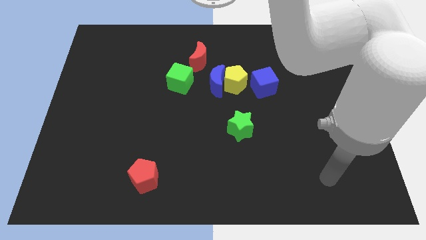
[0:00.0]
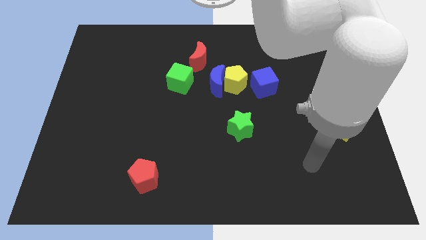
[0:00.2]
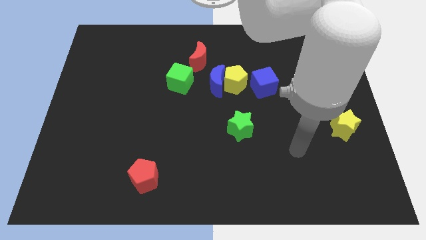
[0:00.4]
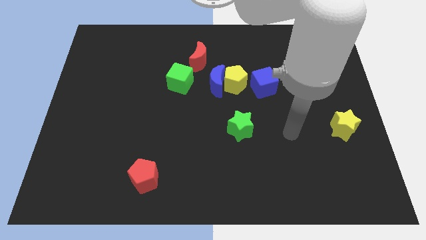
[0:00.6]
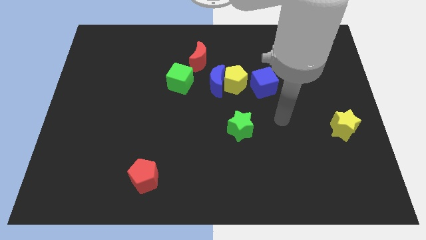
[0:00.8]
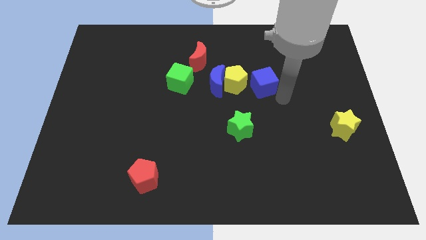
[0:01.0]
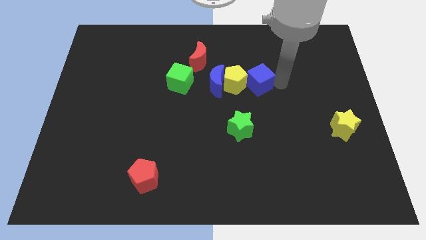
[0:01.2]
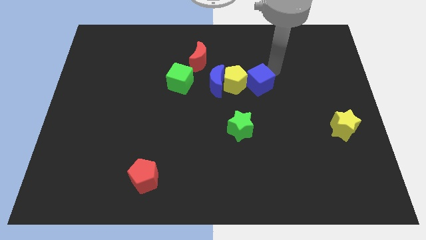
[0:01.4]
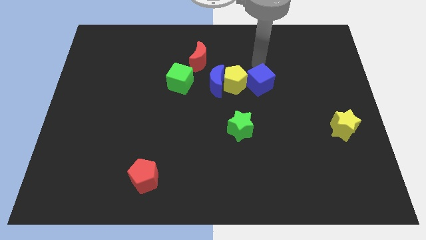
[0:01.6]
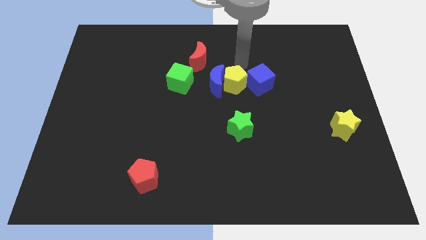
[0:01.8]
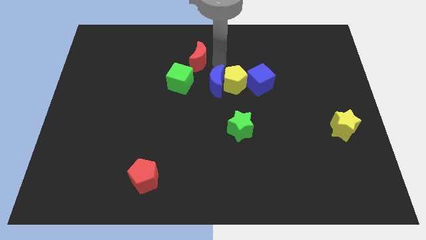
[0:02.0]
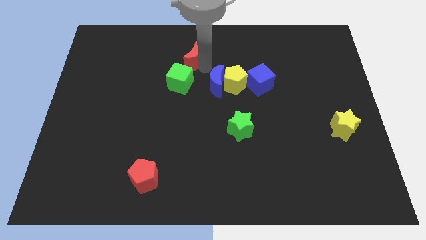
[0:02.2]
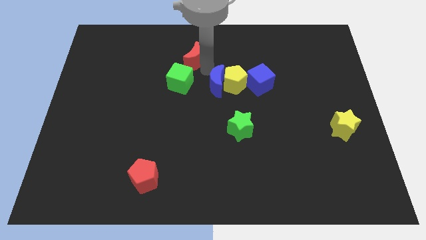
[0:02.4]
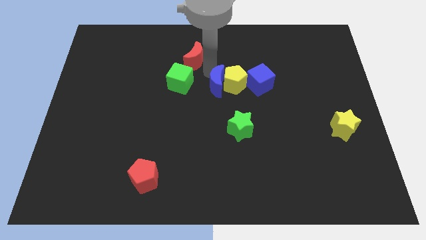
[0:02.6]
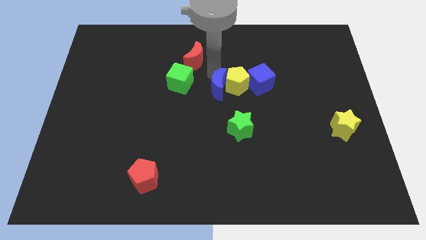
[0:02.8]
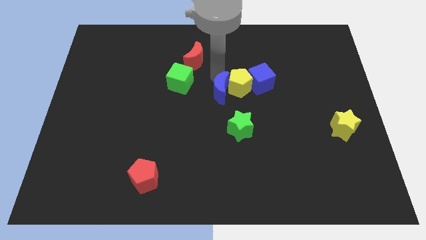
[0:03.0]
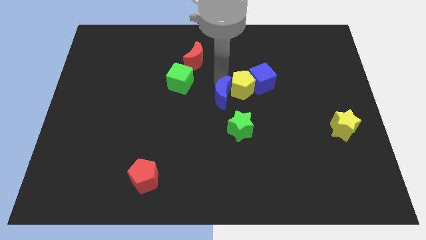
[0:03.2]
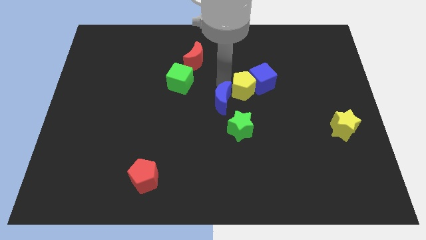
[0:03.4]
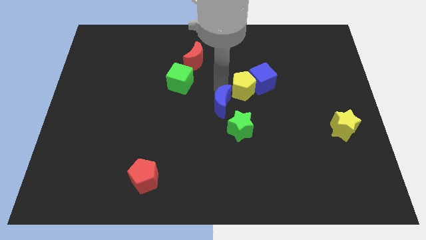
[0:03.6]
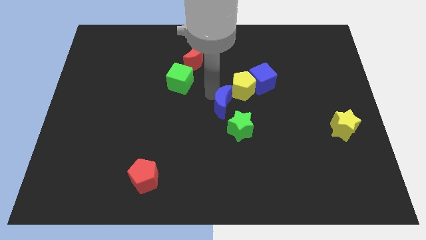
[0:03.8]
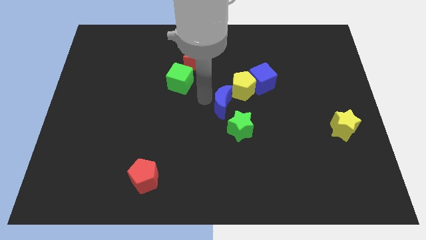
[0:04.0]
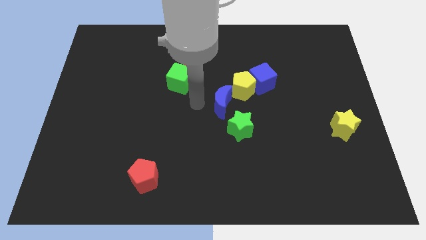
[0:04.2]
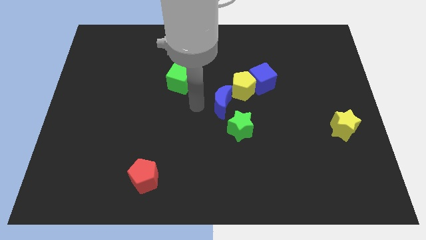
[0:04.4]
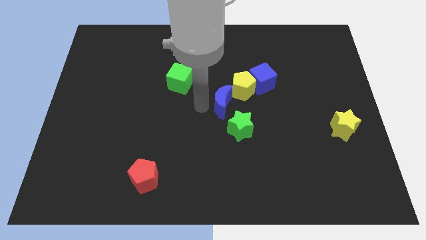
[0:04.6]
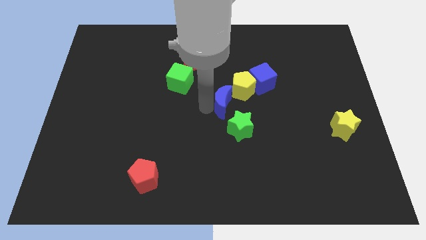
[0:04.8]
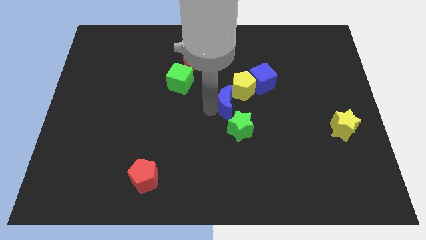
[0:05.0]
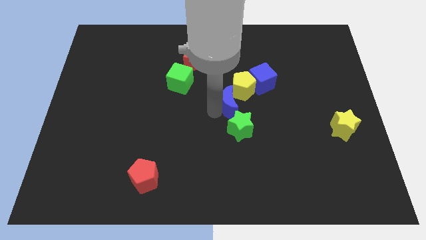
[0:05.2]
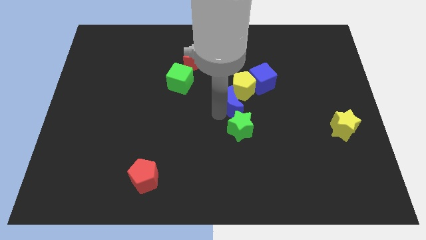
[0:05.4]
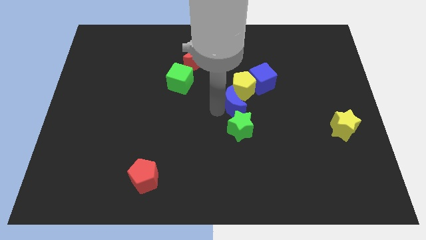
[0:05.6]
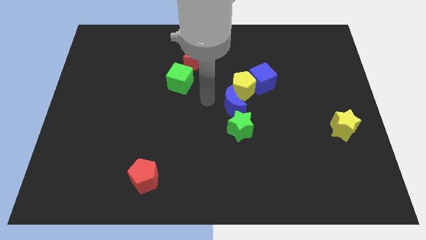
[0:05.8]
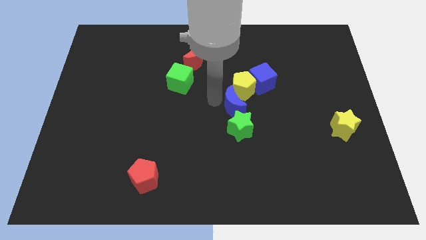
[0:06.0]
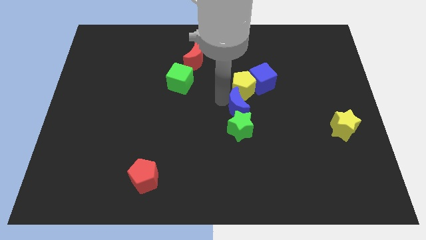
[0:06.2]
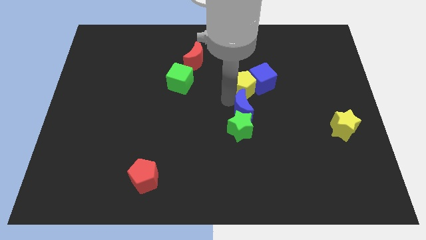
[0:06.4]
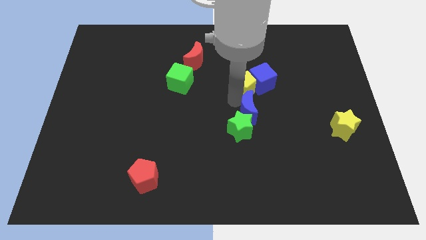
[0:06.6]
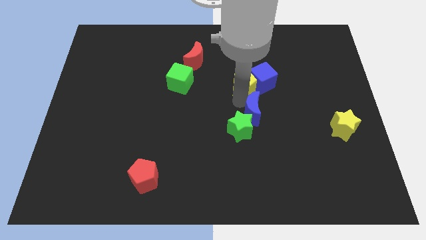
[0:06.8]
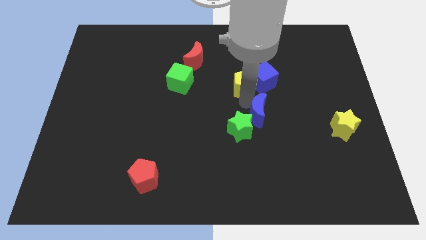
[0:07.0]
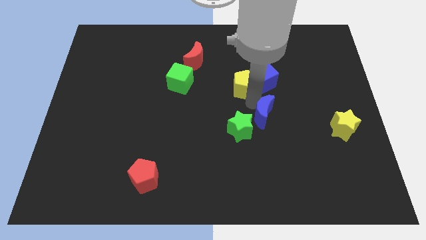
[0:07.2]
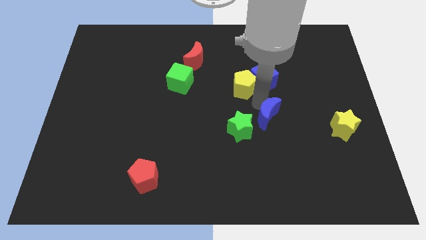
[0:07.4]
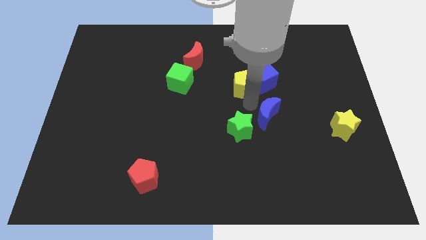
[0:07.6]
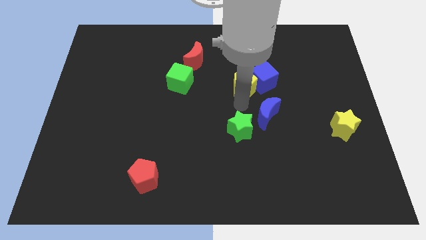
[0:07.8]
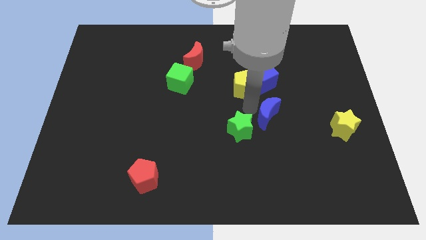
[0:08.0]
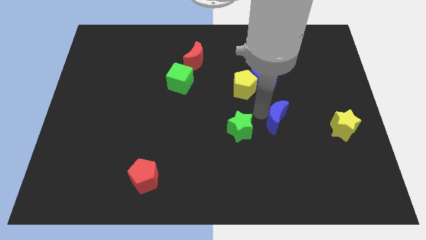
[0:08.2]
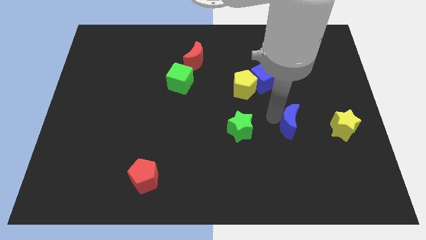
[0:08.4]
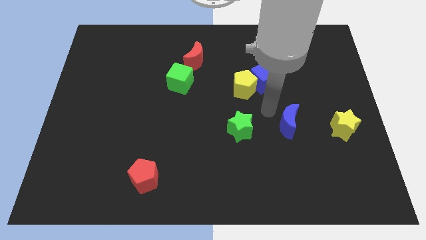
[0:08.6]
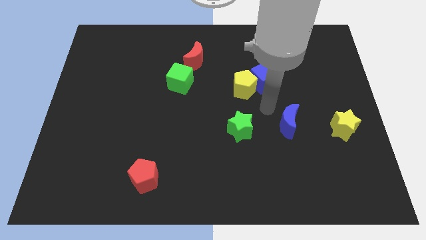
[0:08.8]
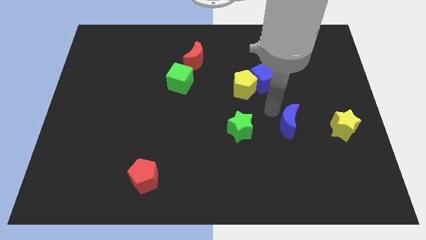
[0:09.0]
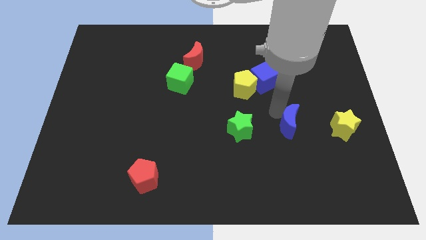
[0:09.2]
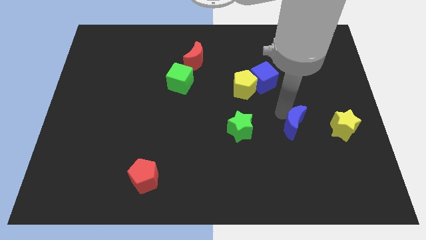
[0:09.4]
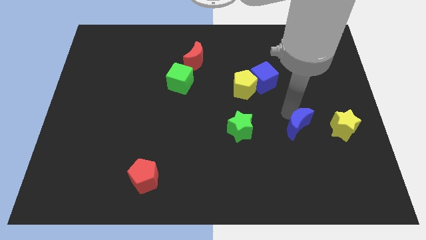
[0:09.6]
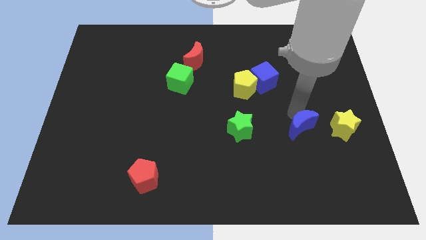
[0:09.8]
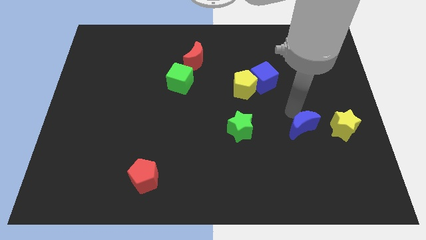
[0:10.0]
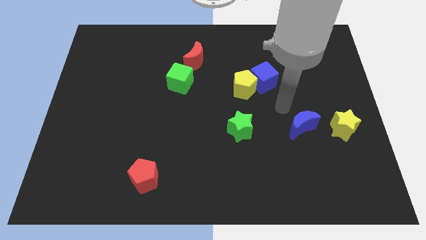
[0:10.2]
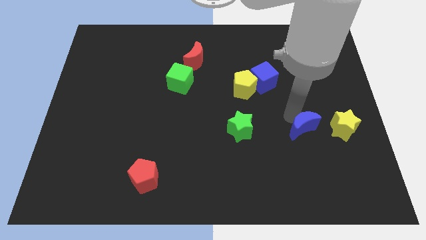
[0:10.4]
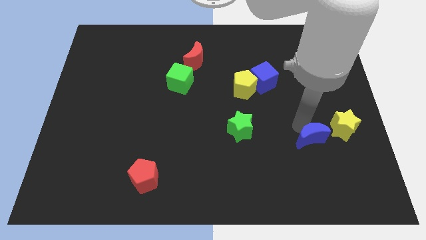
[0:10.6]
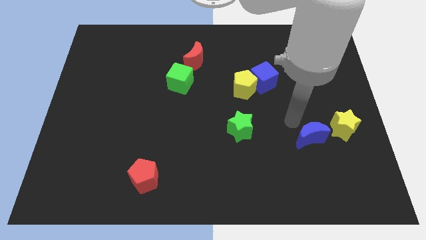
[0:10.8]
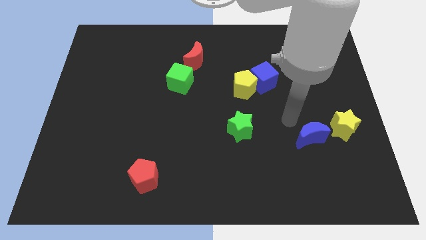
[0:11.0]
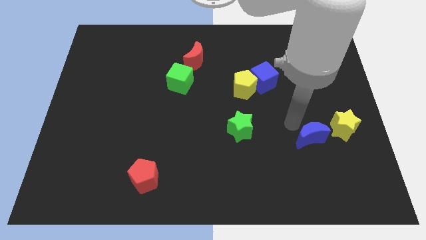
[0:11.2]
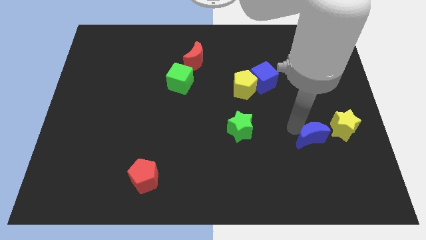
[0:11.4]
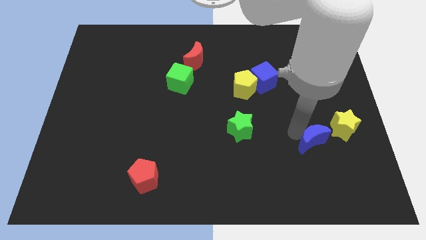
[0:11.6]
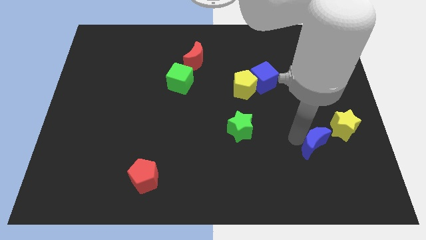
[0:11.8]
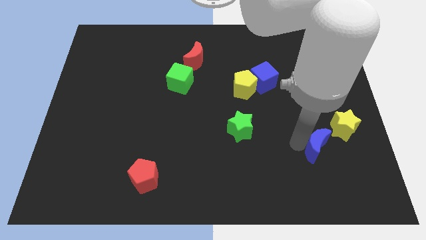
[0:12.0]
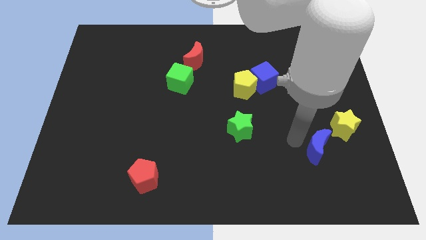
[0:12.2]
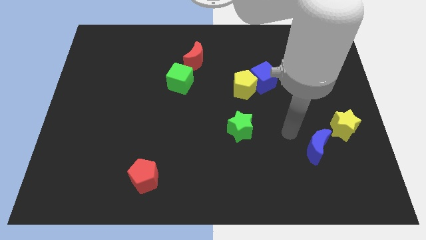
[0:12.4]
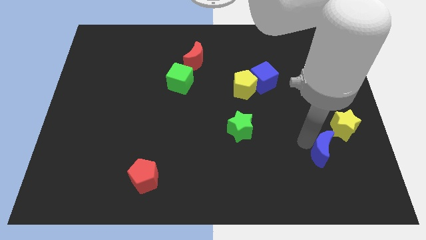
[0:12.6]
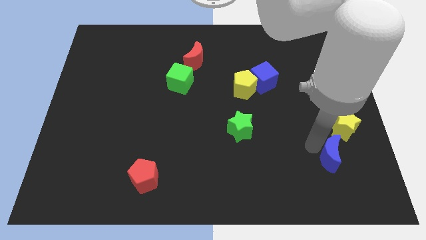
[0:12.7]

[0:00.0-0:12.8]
push the blue moon to the bottom of the yellow star

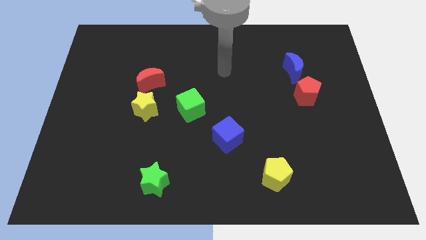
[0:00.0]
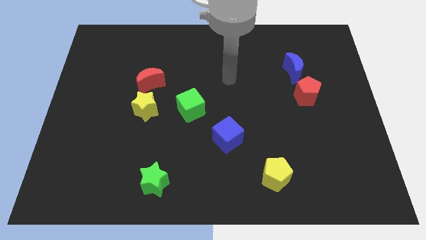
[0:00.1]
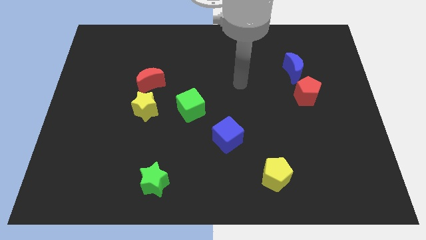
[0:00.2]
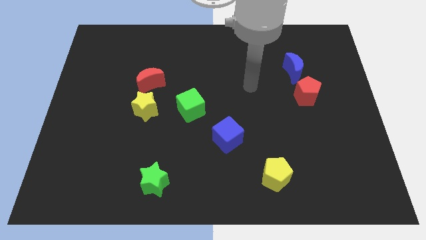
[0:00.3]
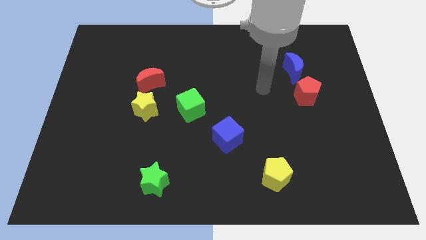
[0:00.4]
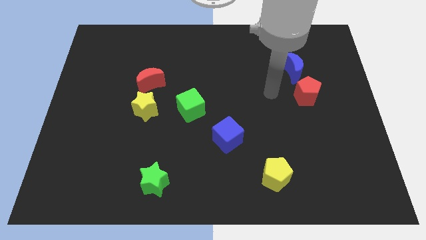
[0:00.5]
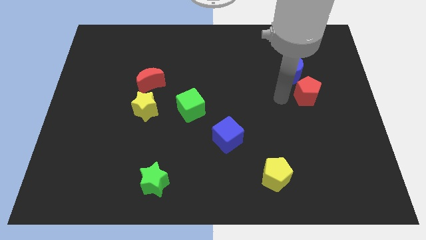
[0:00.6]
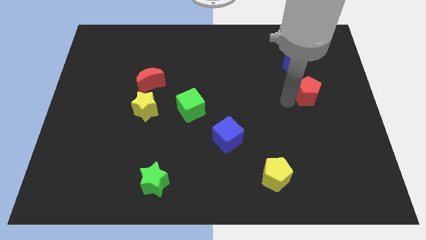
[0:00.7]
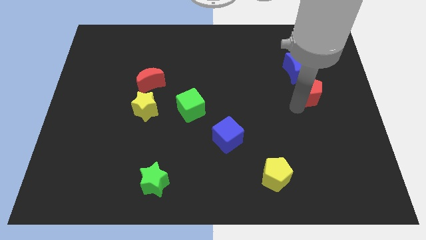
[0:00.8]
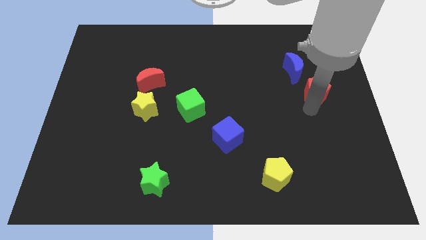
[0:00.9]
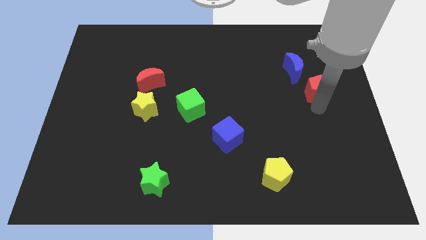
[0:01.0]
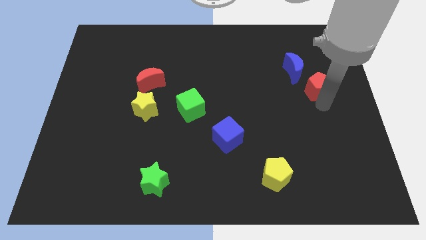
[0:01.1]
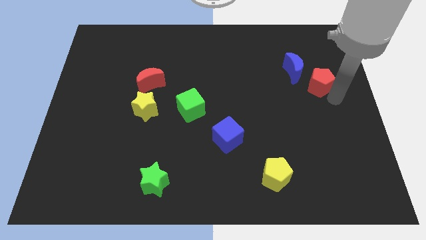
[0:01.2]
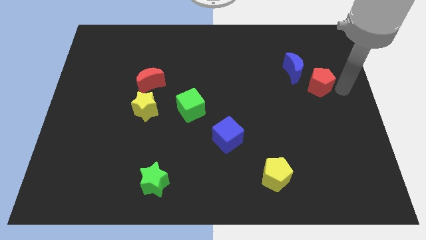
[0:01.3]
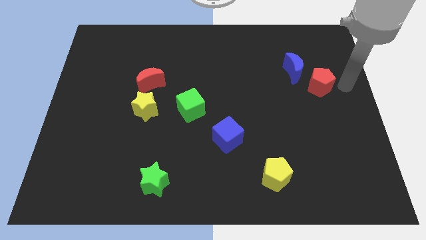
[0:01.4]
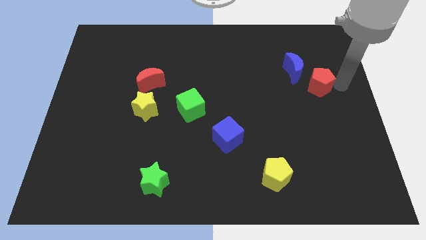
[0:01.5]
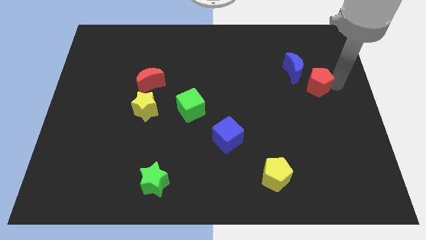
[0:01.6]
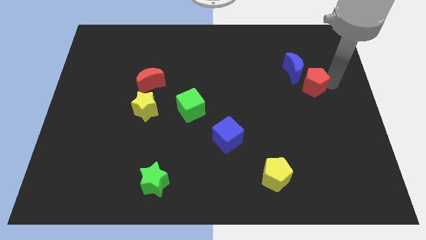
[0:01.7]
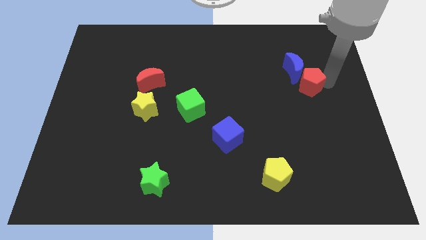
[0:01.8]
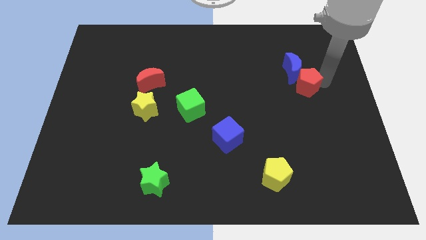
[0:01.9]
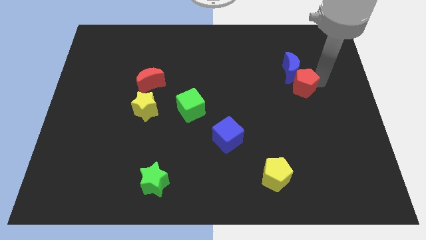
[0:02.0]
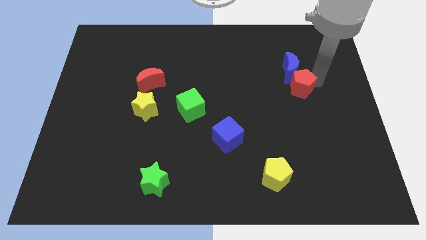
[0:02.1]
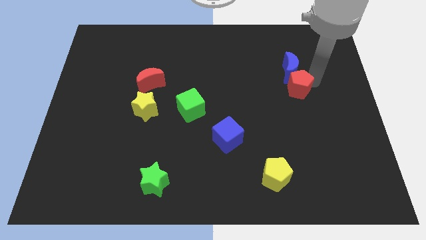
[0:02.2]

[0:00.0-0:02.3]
push the red pentagon to the bottom left side of the blue moon
